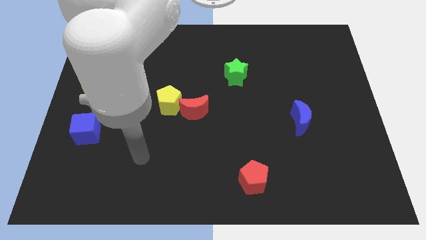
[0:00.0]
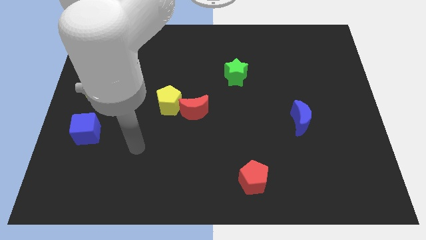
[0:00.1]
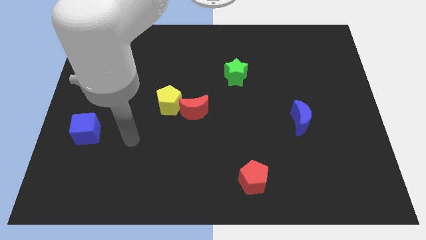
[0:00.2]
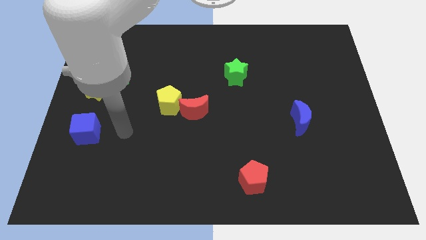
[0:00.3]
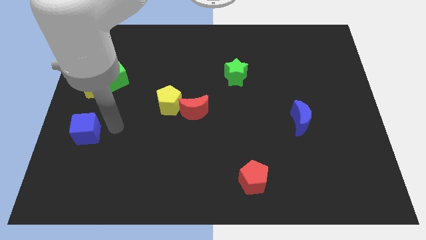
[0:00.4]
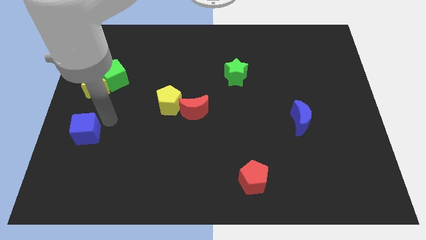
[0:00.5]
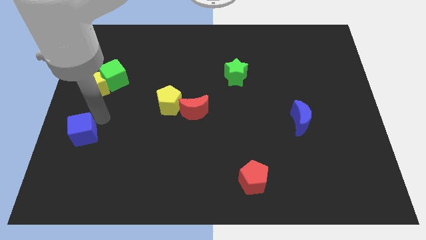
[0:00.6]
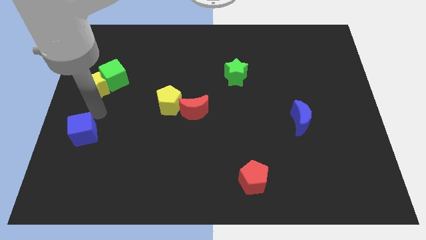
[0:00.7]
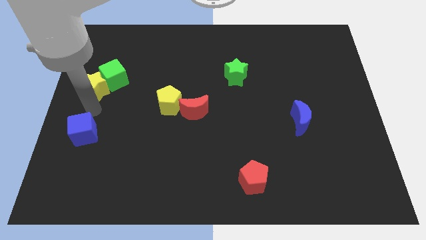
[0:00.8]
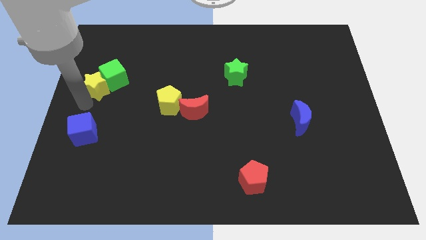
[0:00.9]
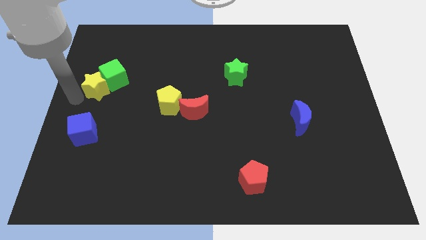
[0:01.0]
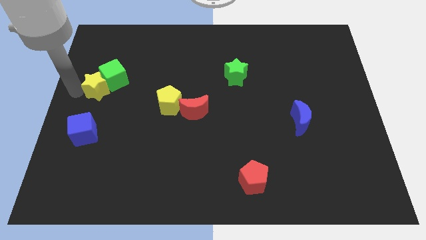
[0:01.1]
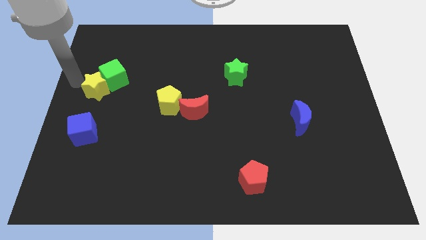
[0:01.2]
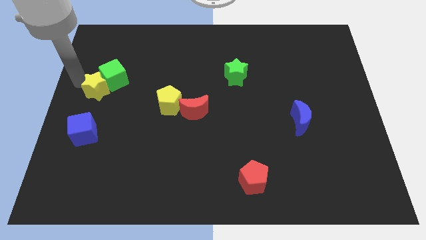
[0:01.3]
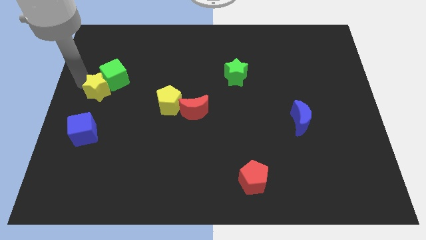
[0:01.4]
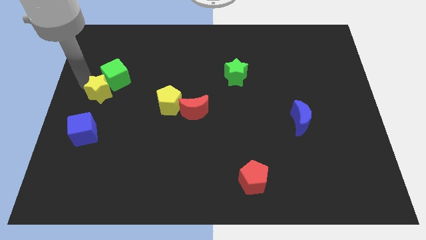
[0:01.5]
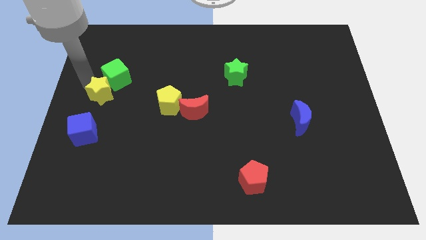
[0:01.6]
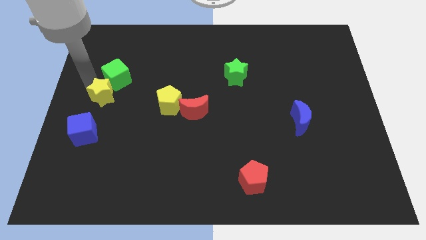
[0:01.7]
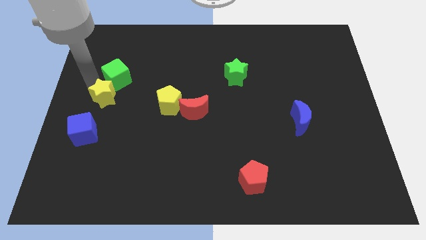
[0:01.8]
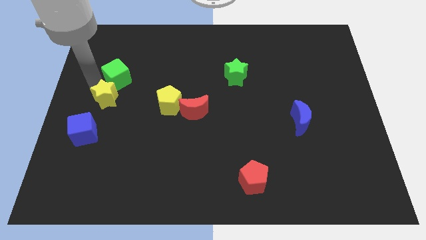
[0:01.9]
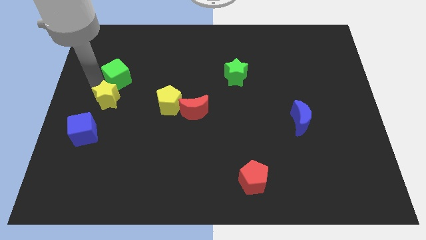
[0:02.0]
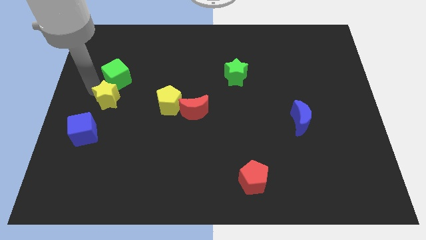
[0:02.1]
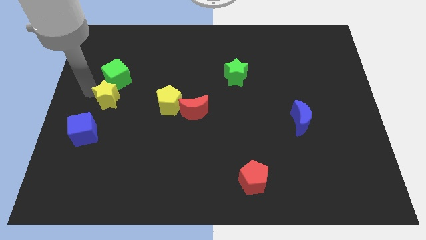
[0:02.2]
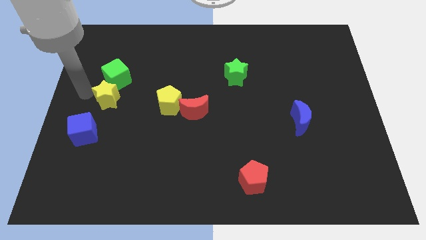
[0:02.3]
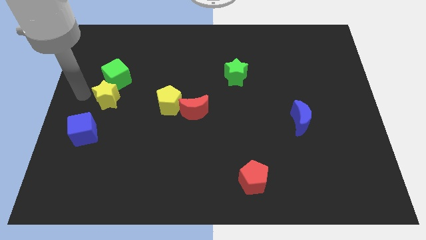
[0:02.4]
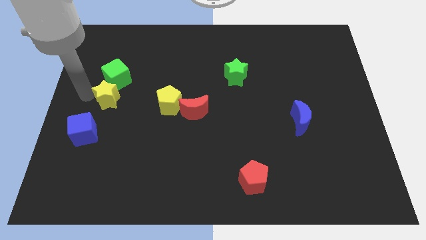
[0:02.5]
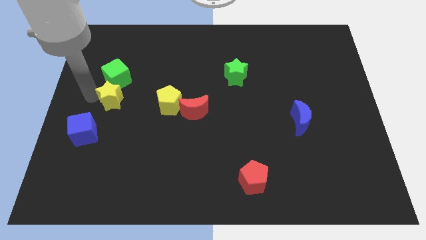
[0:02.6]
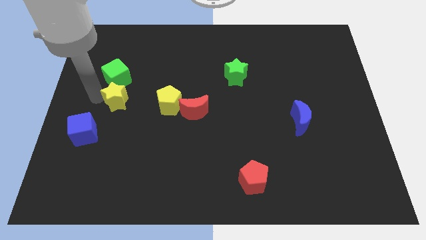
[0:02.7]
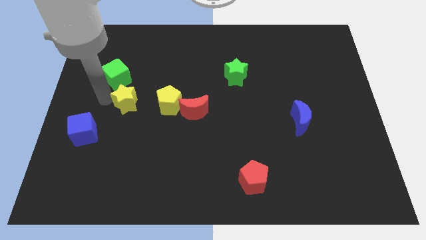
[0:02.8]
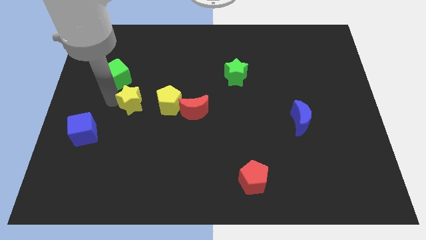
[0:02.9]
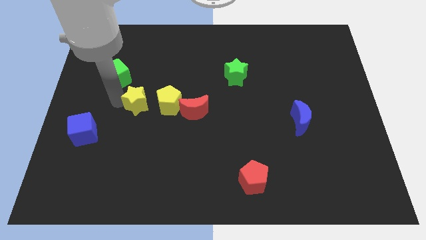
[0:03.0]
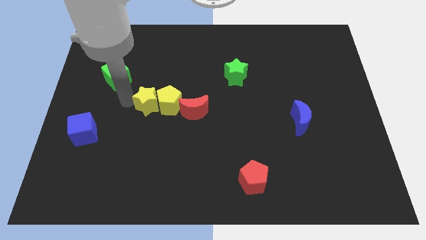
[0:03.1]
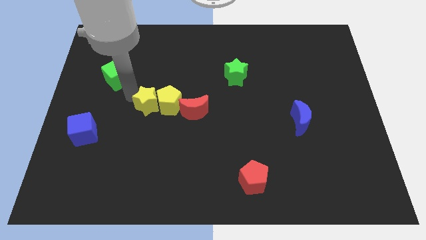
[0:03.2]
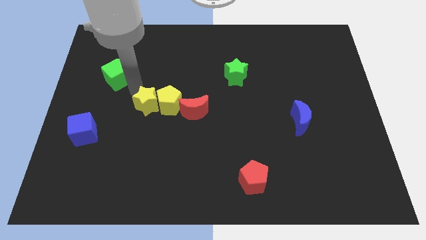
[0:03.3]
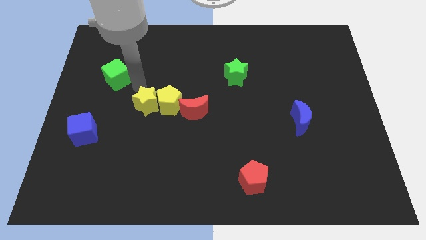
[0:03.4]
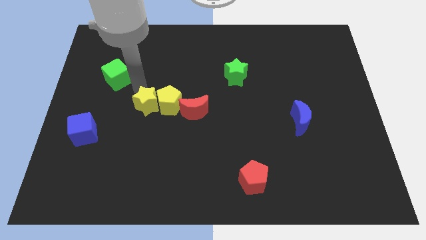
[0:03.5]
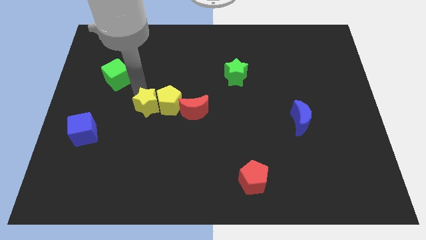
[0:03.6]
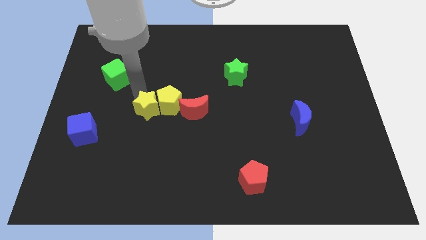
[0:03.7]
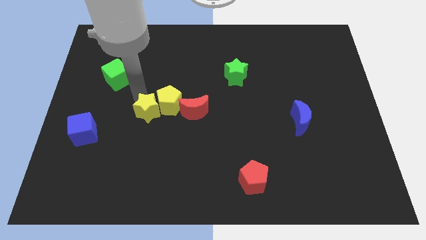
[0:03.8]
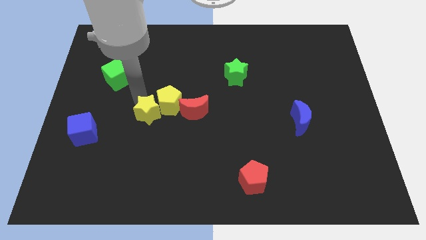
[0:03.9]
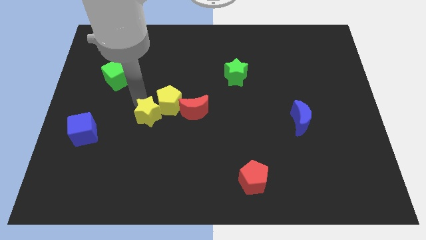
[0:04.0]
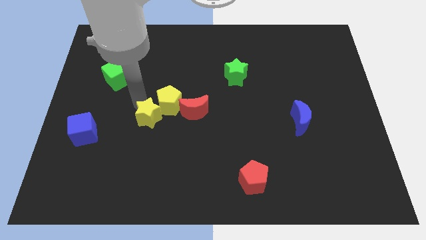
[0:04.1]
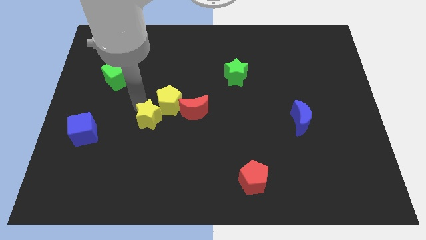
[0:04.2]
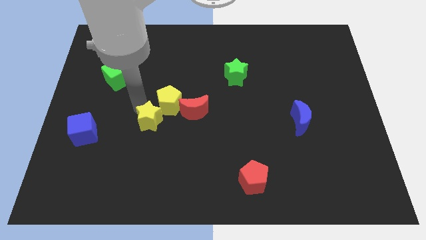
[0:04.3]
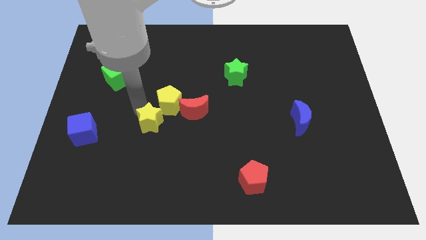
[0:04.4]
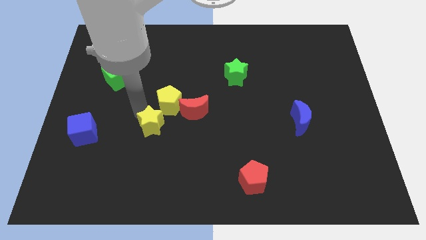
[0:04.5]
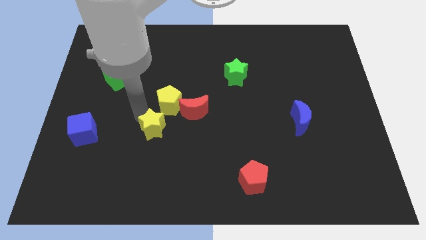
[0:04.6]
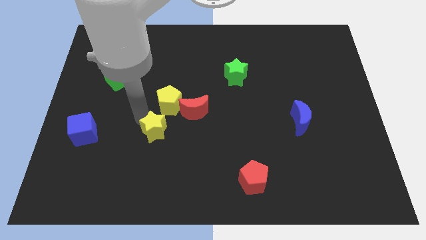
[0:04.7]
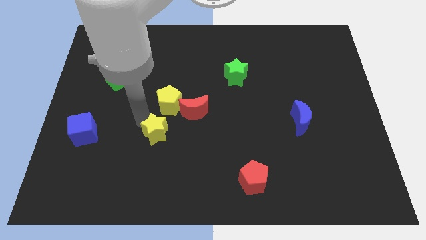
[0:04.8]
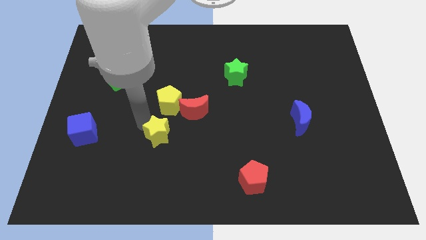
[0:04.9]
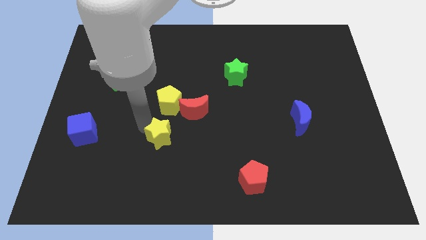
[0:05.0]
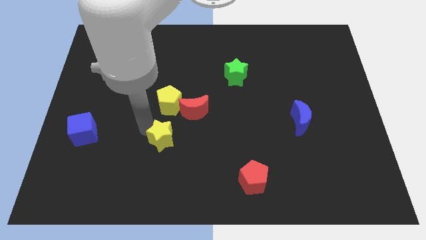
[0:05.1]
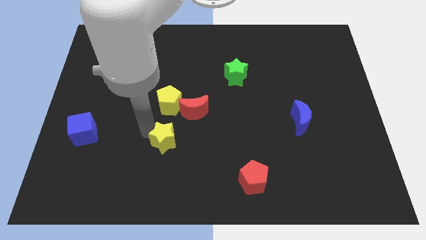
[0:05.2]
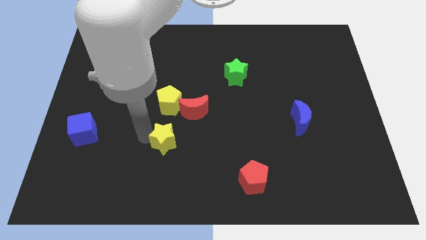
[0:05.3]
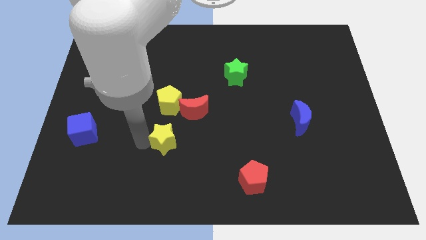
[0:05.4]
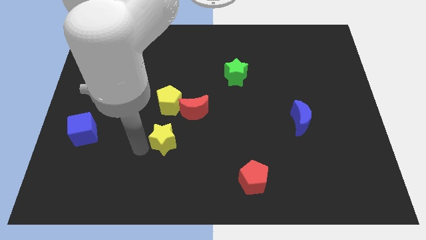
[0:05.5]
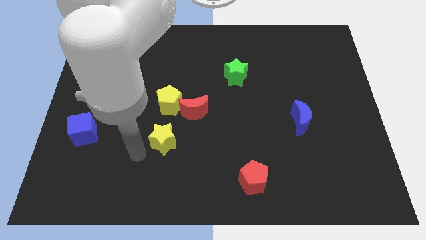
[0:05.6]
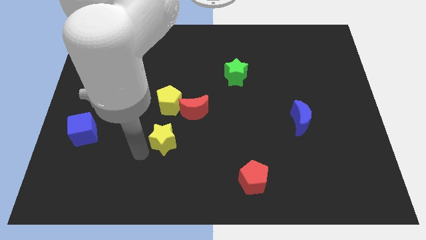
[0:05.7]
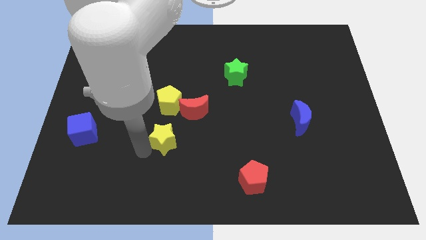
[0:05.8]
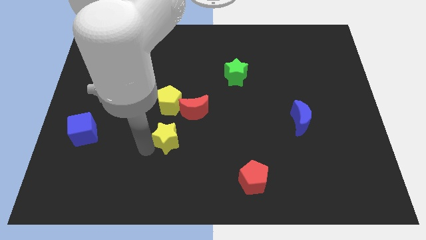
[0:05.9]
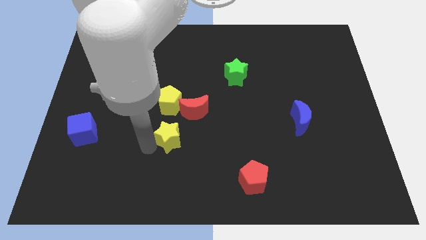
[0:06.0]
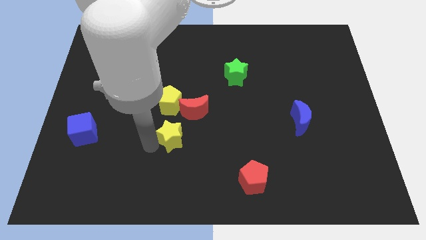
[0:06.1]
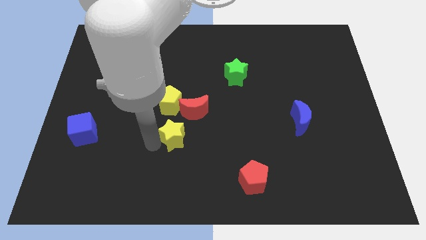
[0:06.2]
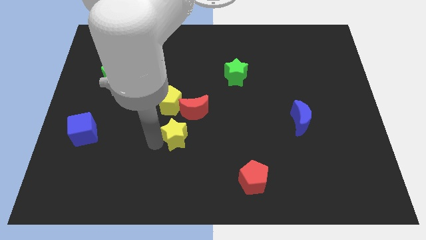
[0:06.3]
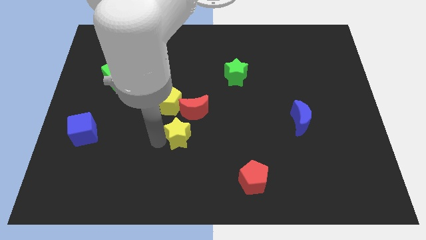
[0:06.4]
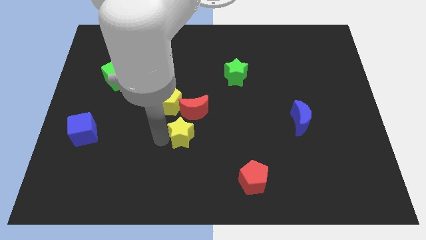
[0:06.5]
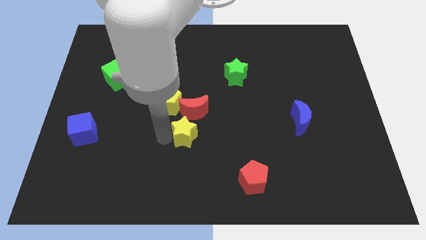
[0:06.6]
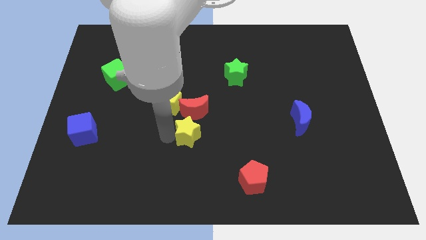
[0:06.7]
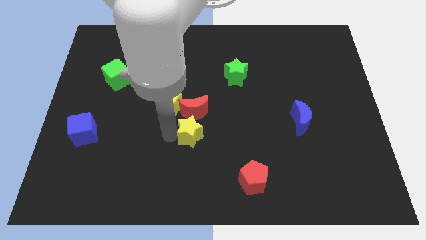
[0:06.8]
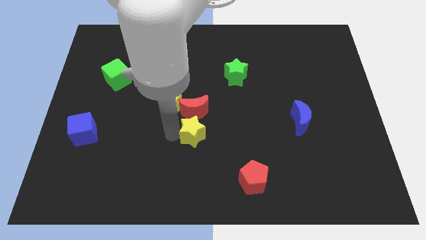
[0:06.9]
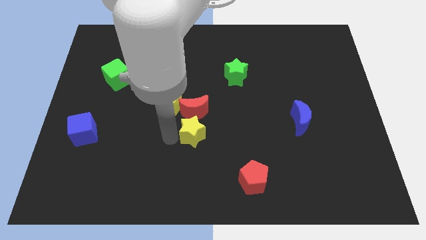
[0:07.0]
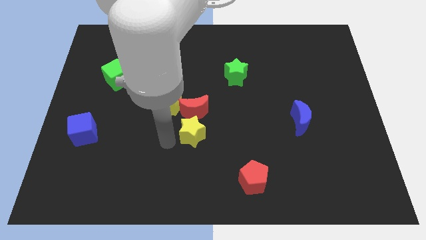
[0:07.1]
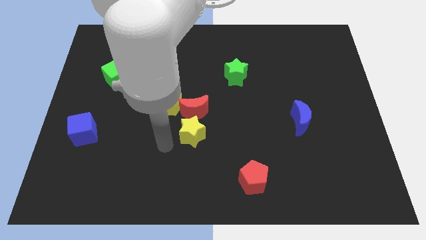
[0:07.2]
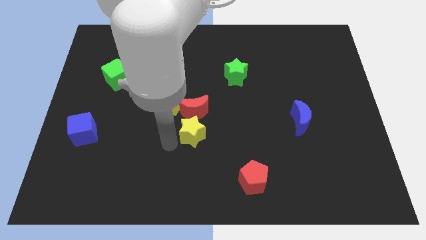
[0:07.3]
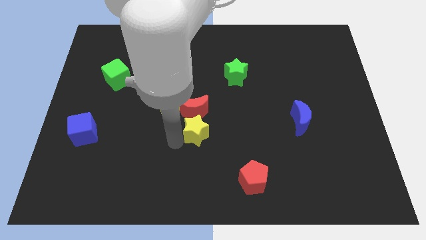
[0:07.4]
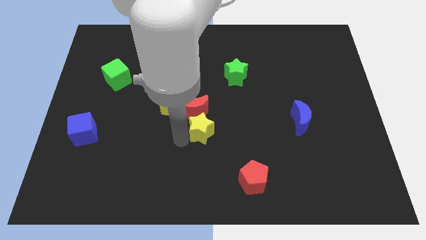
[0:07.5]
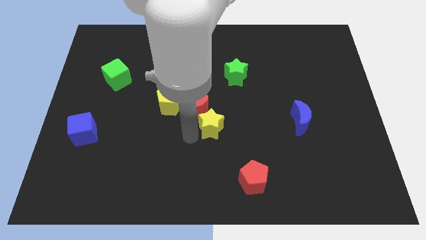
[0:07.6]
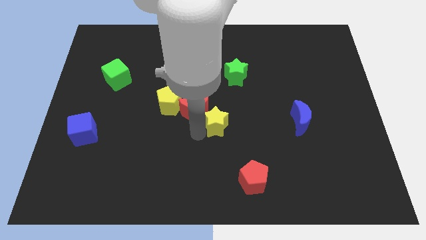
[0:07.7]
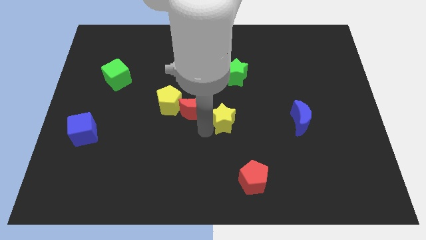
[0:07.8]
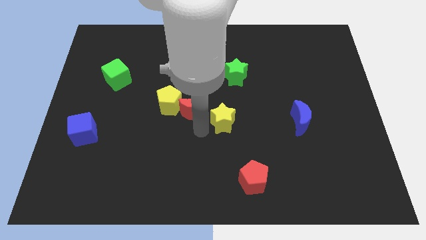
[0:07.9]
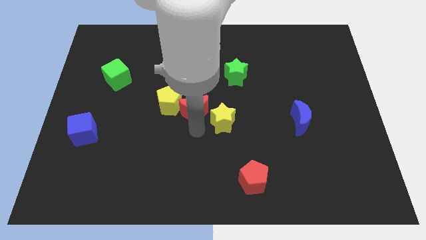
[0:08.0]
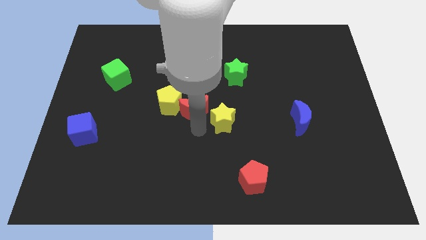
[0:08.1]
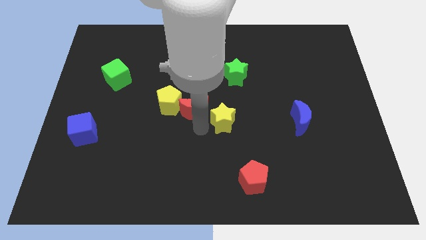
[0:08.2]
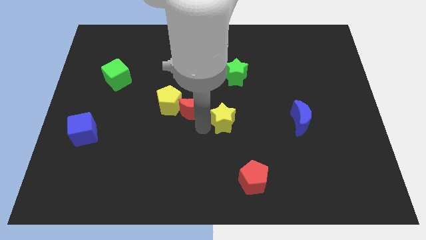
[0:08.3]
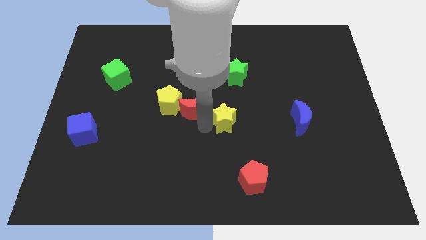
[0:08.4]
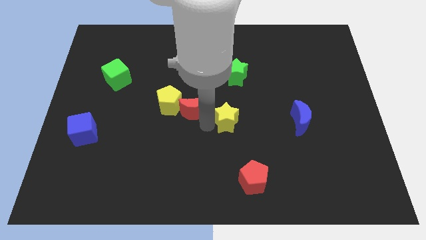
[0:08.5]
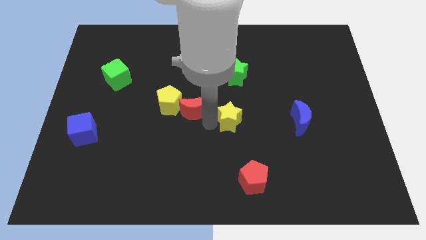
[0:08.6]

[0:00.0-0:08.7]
push the yellow star just left of the blue moon
